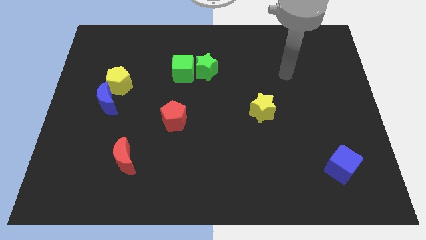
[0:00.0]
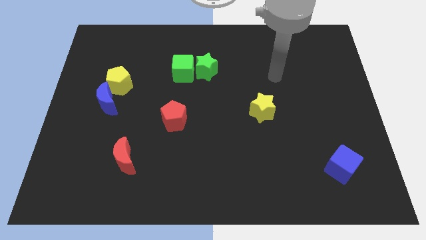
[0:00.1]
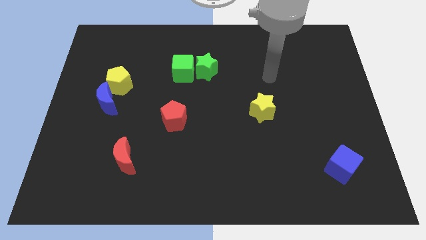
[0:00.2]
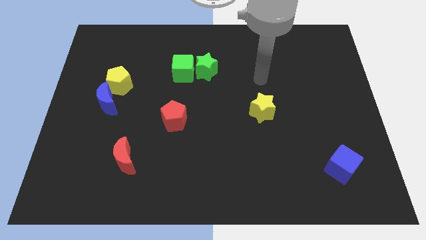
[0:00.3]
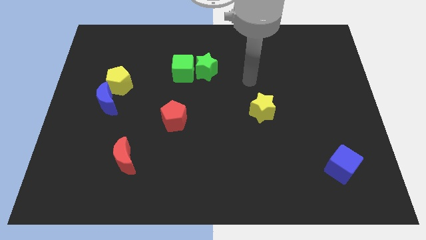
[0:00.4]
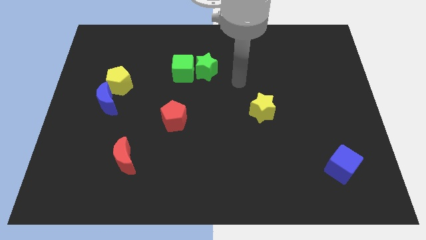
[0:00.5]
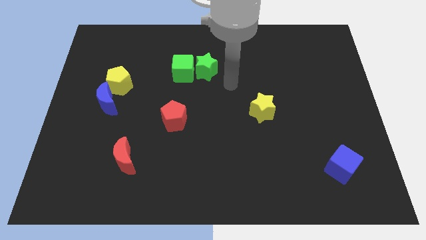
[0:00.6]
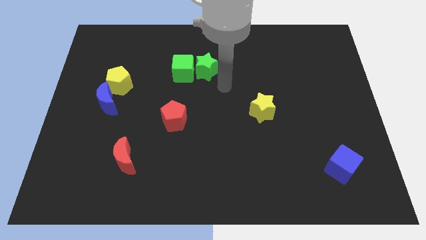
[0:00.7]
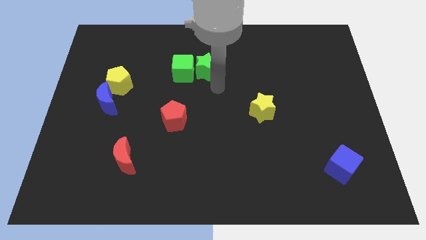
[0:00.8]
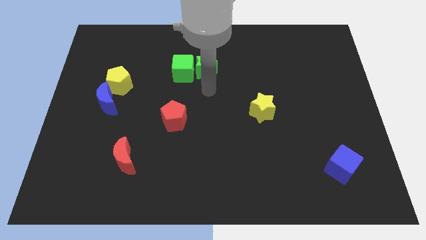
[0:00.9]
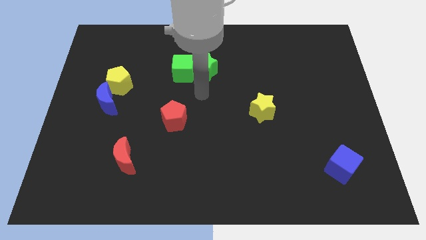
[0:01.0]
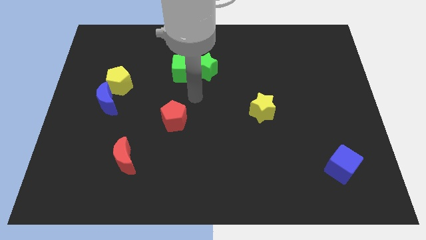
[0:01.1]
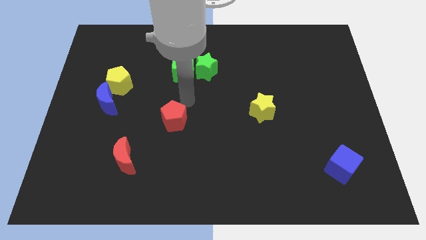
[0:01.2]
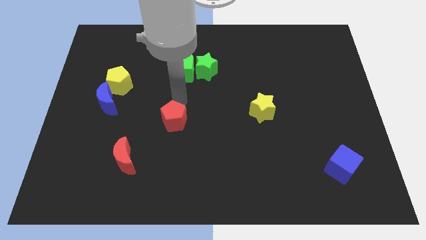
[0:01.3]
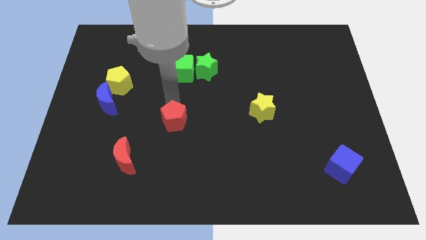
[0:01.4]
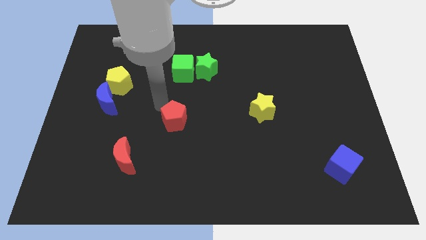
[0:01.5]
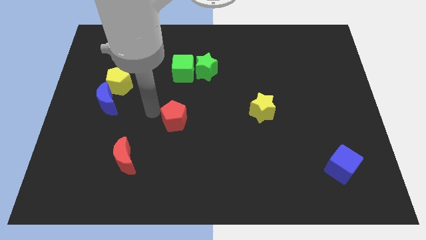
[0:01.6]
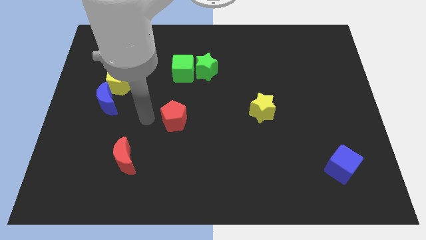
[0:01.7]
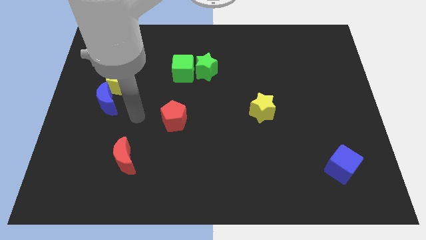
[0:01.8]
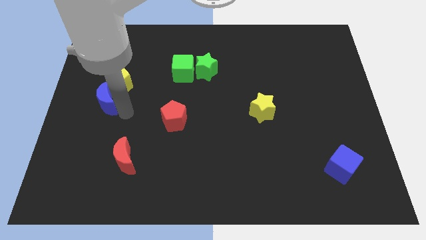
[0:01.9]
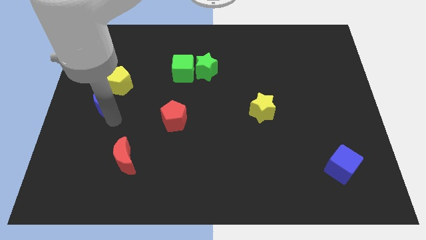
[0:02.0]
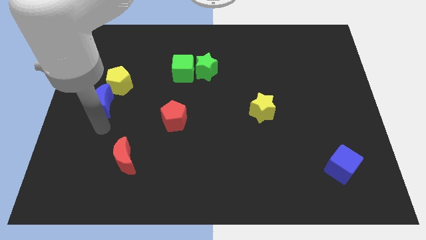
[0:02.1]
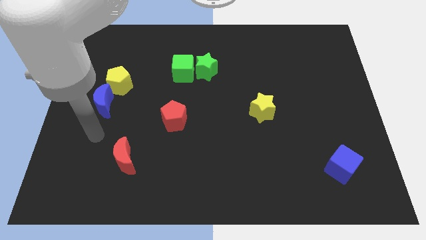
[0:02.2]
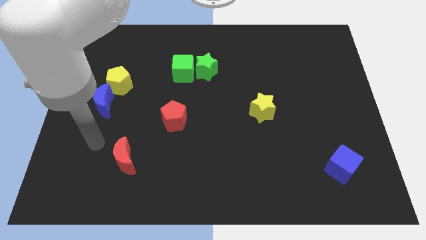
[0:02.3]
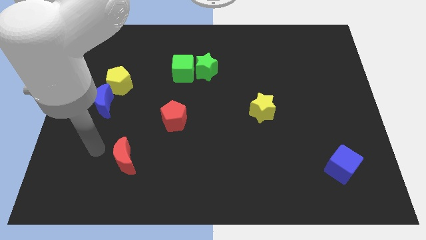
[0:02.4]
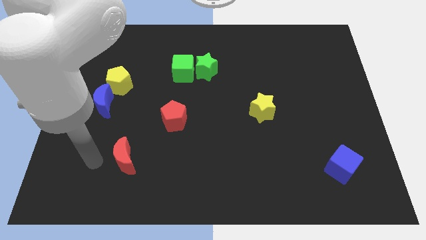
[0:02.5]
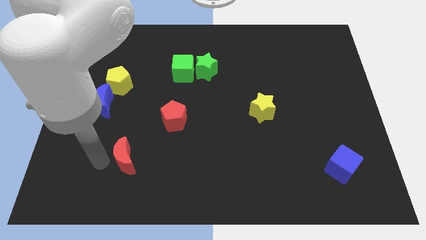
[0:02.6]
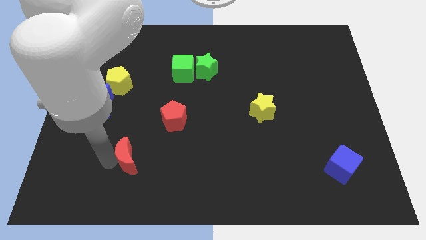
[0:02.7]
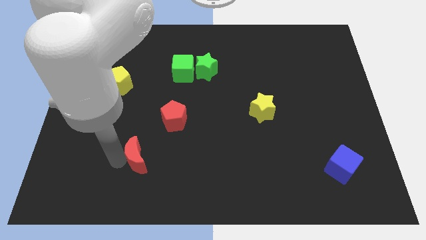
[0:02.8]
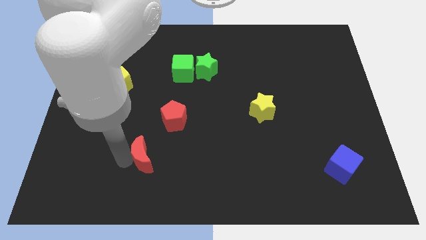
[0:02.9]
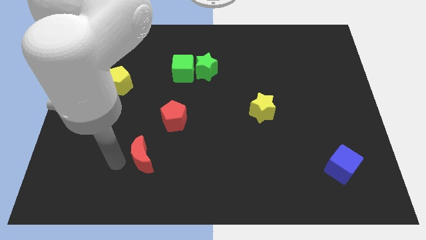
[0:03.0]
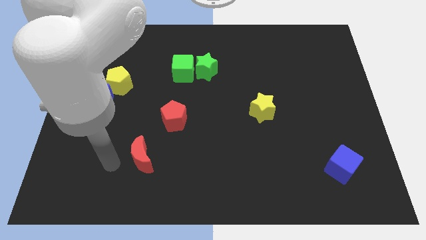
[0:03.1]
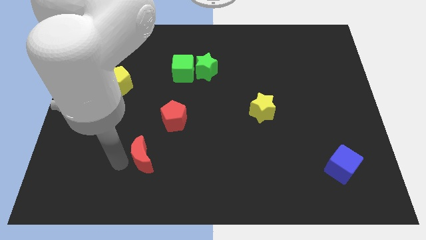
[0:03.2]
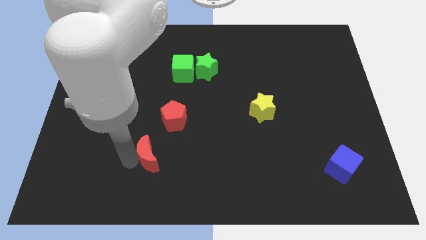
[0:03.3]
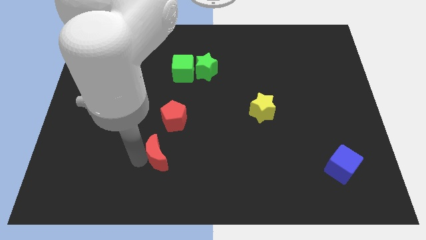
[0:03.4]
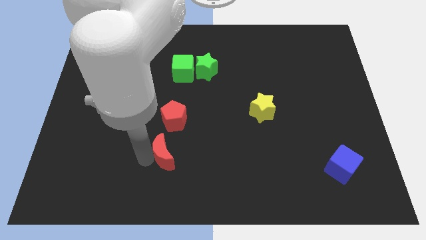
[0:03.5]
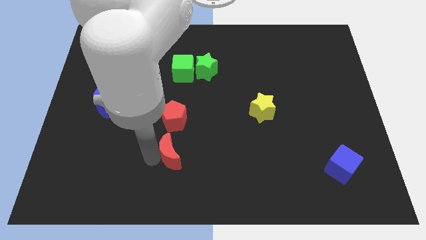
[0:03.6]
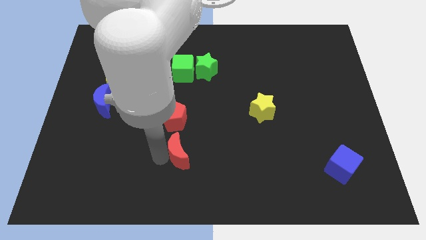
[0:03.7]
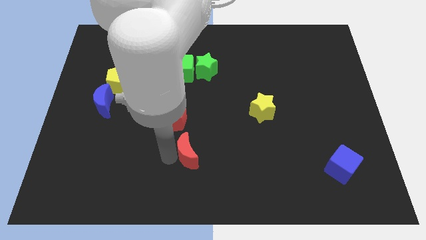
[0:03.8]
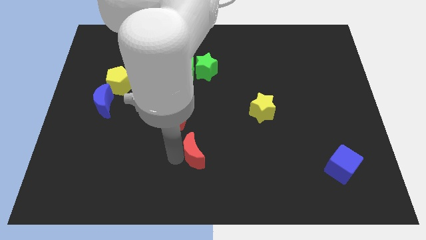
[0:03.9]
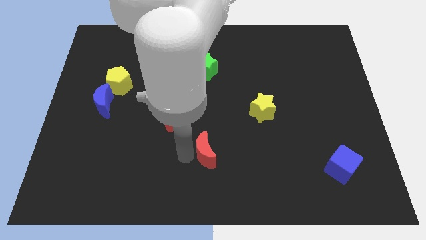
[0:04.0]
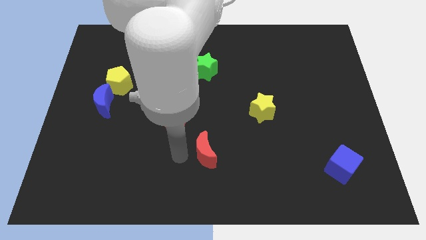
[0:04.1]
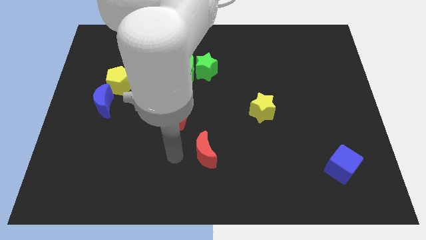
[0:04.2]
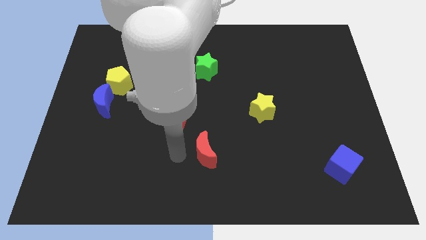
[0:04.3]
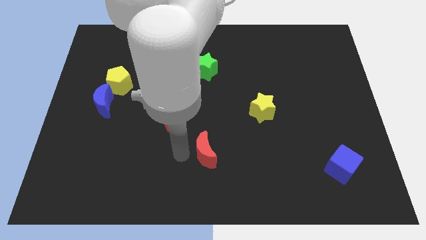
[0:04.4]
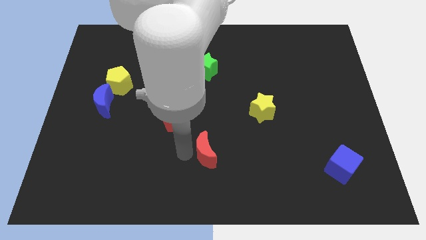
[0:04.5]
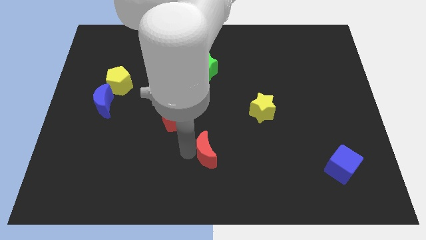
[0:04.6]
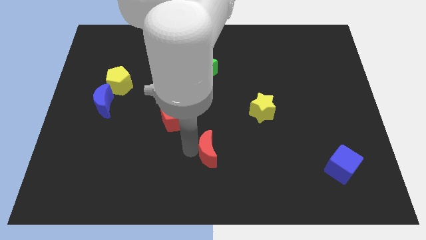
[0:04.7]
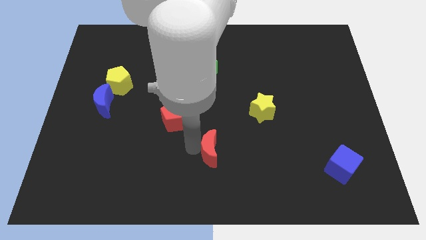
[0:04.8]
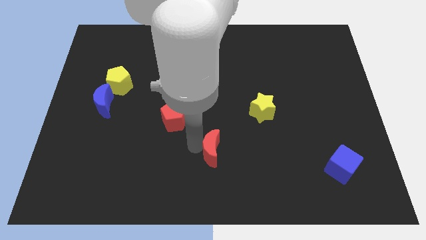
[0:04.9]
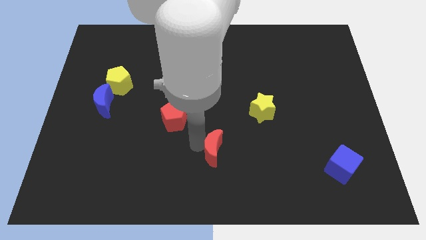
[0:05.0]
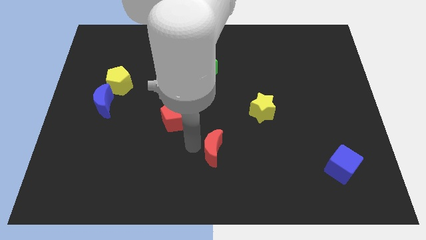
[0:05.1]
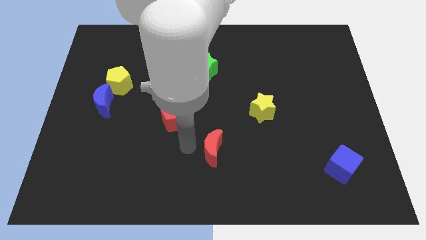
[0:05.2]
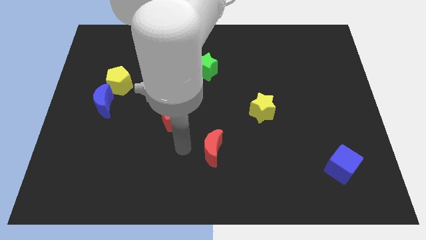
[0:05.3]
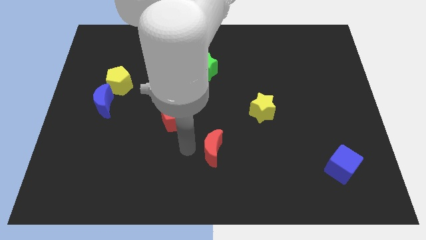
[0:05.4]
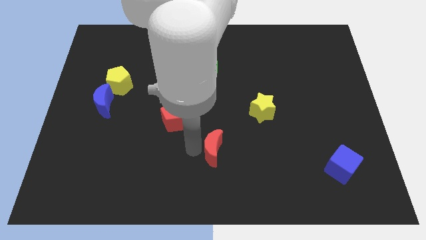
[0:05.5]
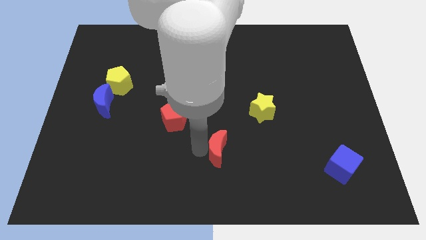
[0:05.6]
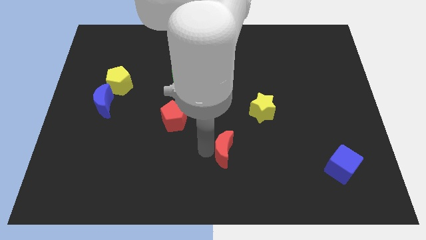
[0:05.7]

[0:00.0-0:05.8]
move the red moon to the right

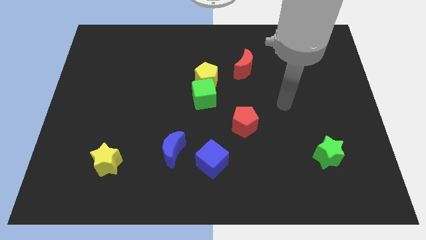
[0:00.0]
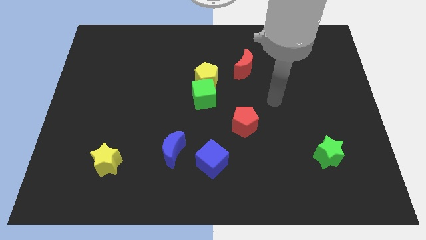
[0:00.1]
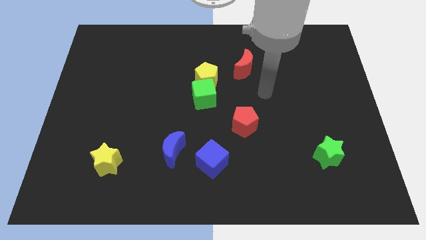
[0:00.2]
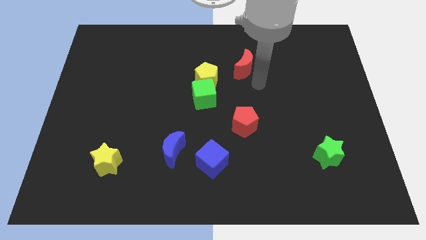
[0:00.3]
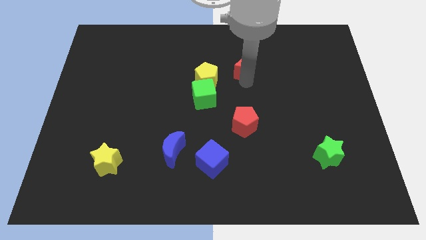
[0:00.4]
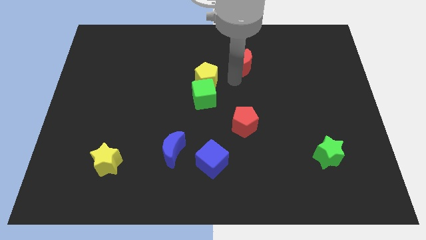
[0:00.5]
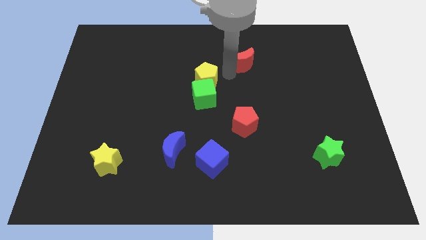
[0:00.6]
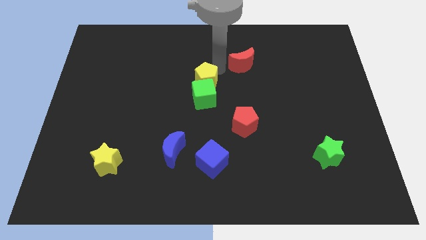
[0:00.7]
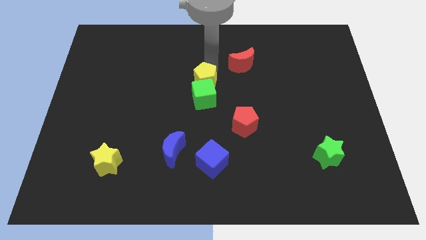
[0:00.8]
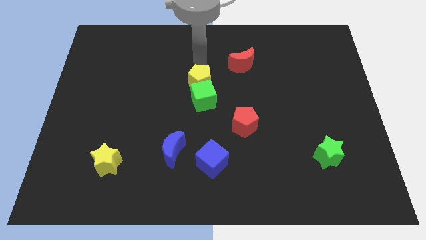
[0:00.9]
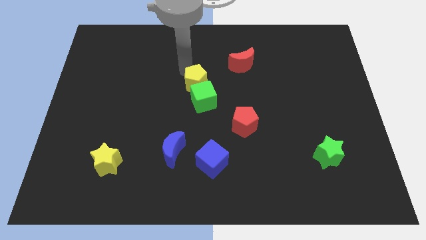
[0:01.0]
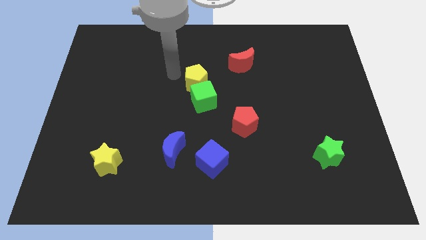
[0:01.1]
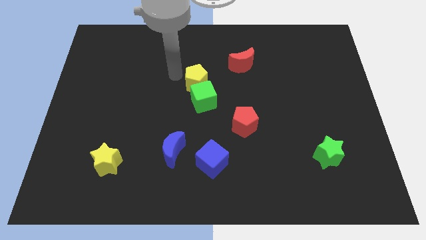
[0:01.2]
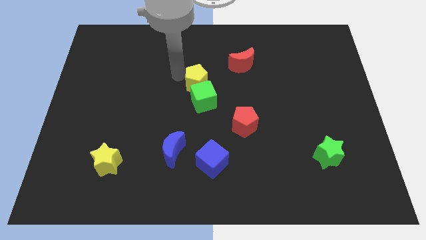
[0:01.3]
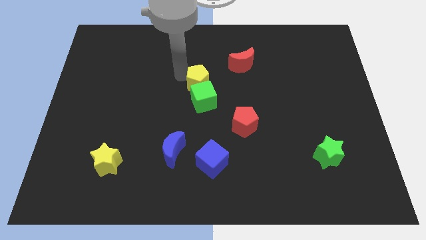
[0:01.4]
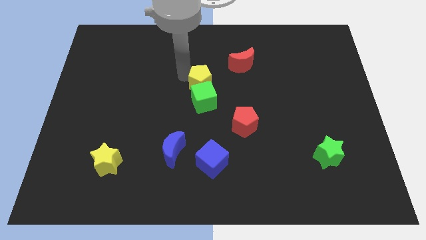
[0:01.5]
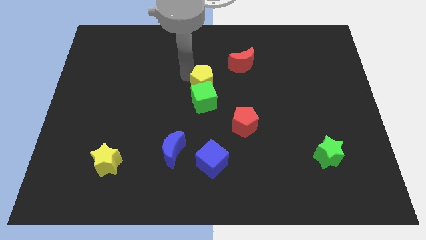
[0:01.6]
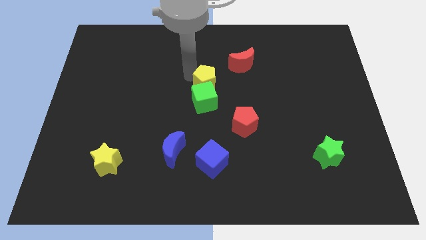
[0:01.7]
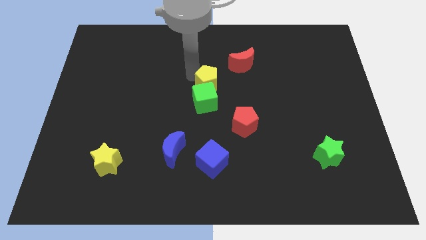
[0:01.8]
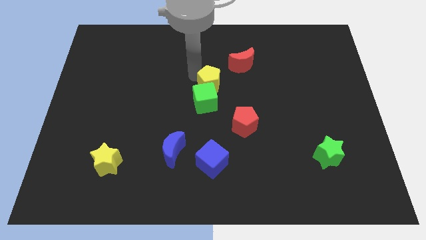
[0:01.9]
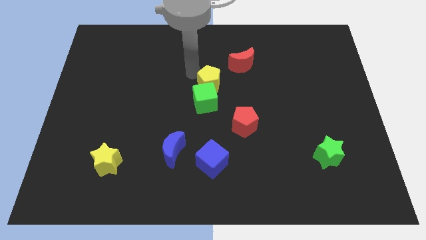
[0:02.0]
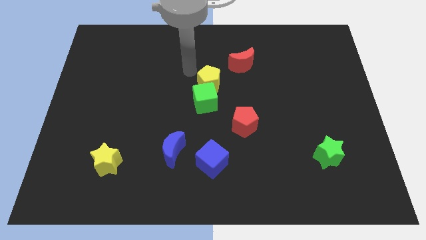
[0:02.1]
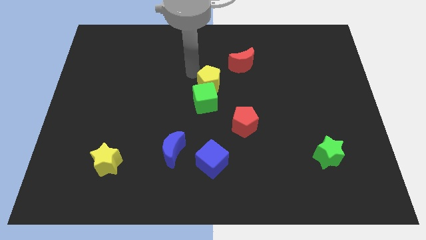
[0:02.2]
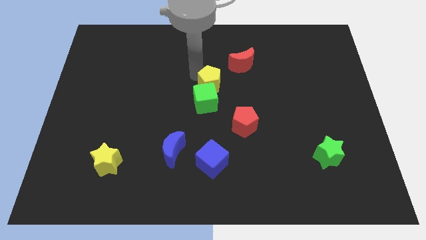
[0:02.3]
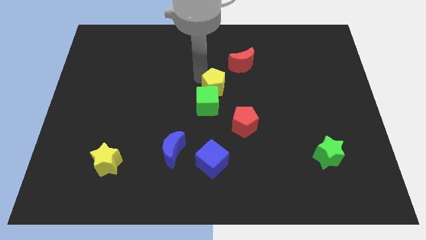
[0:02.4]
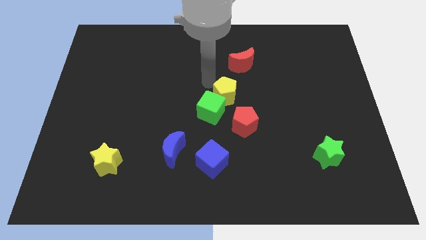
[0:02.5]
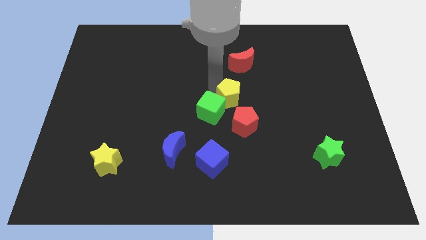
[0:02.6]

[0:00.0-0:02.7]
push the yellow pentagon somewhat downwards and then right
